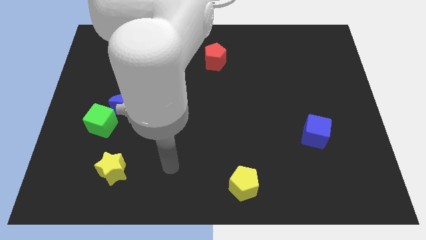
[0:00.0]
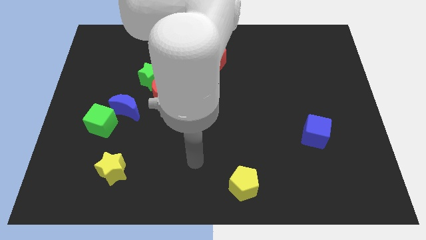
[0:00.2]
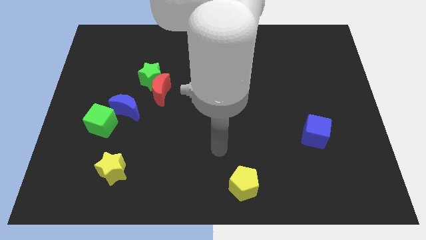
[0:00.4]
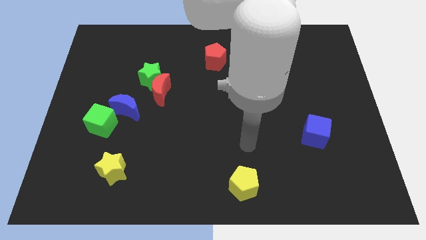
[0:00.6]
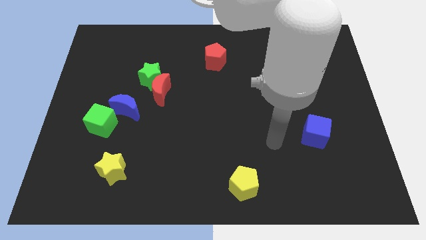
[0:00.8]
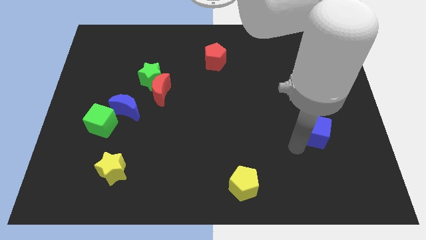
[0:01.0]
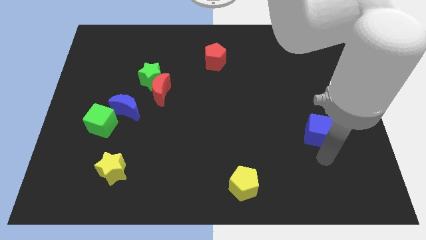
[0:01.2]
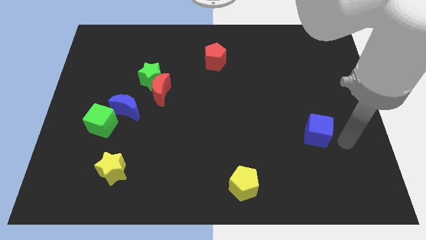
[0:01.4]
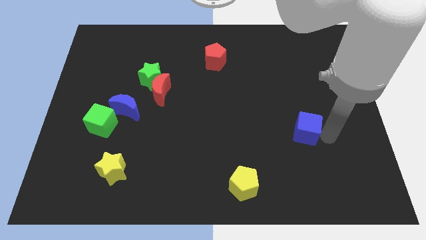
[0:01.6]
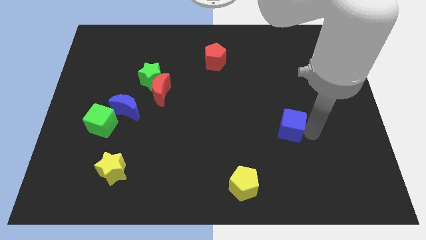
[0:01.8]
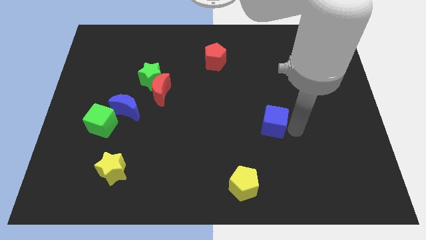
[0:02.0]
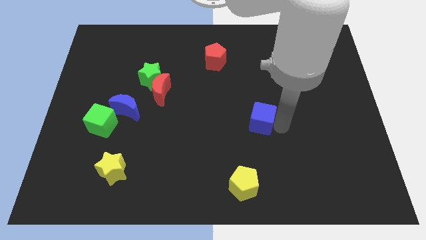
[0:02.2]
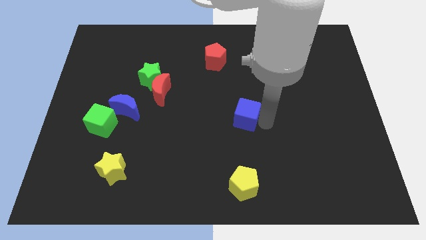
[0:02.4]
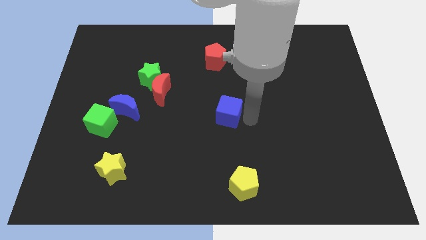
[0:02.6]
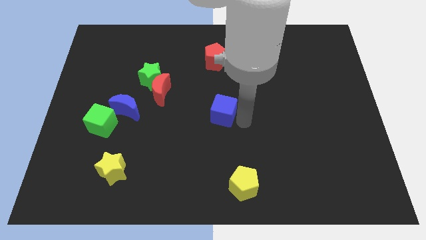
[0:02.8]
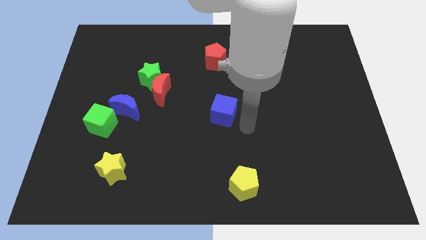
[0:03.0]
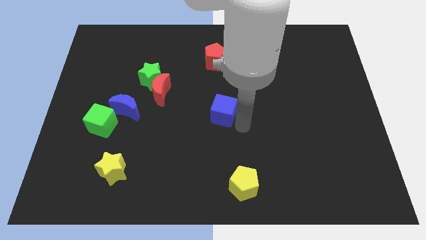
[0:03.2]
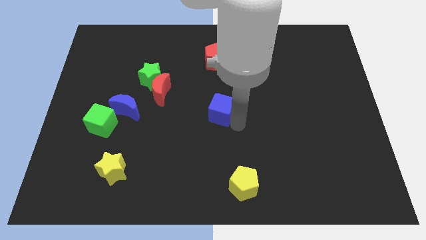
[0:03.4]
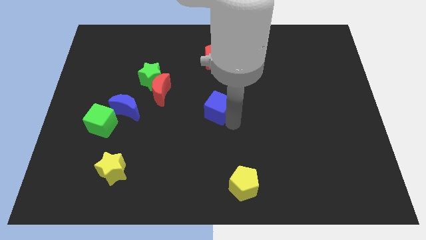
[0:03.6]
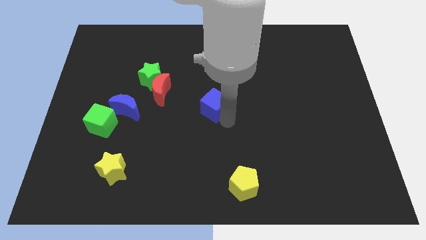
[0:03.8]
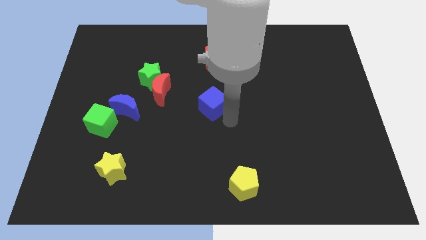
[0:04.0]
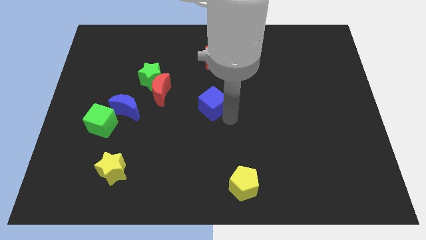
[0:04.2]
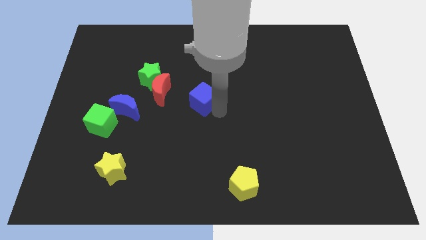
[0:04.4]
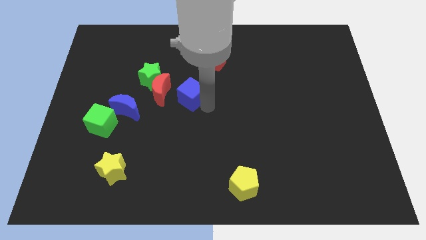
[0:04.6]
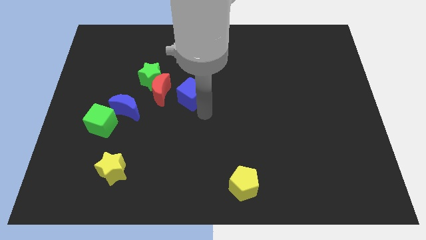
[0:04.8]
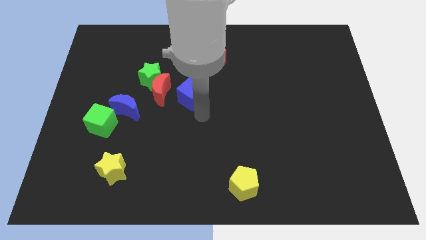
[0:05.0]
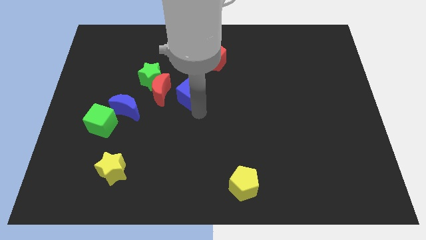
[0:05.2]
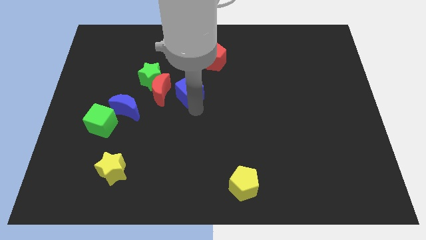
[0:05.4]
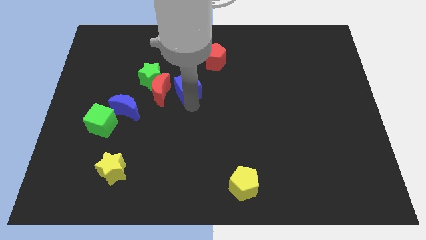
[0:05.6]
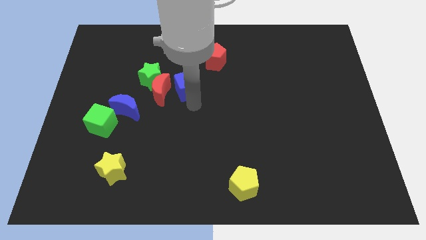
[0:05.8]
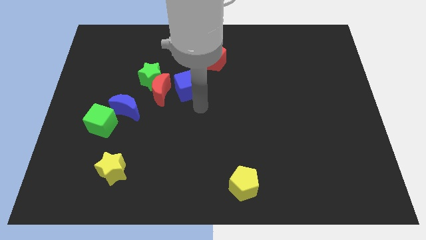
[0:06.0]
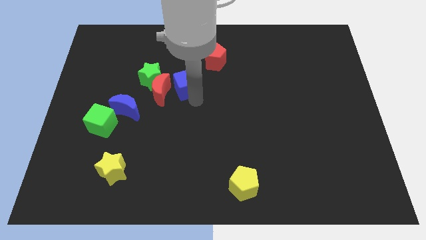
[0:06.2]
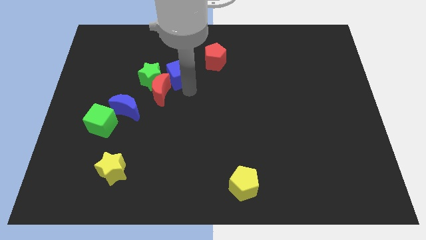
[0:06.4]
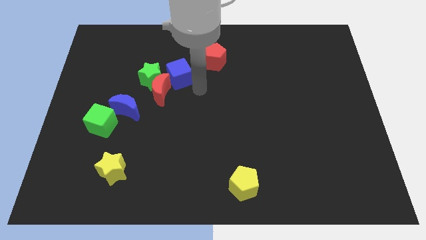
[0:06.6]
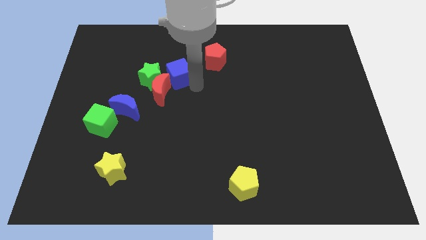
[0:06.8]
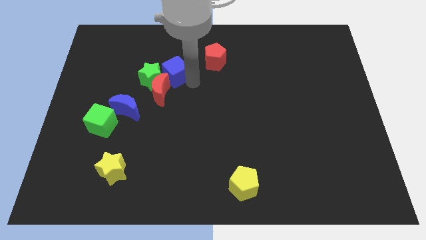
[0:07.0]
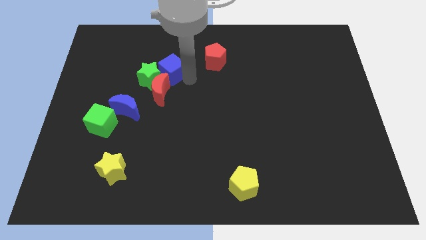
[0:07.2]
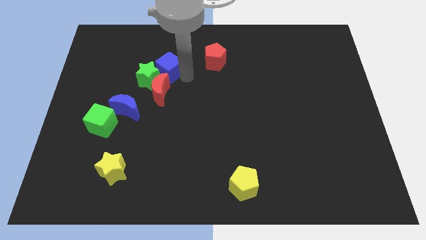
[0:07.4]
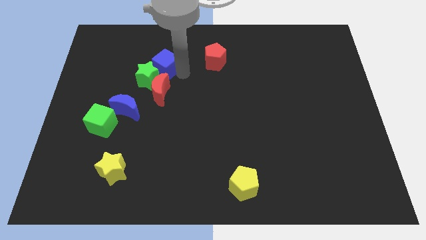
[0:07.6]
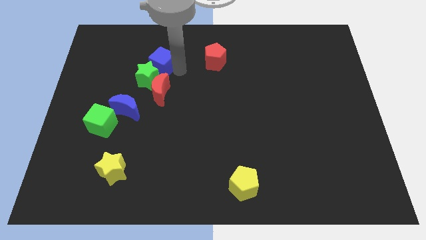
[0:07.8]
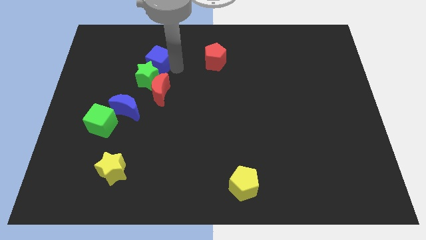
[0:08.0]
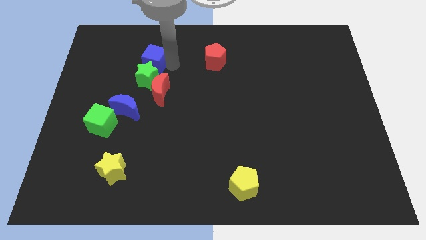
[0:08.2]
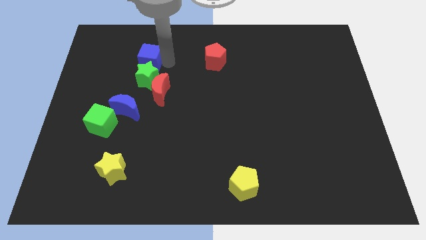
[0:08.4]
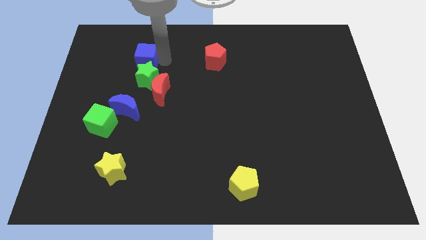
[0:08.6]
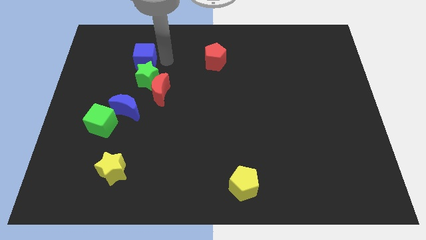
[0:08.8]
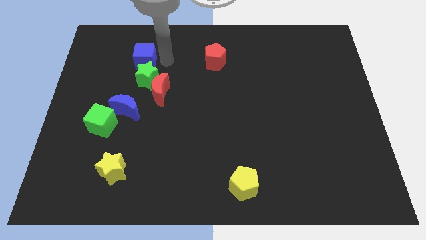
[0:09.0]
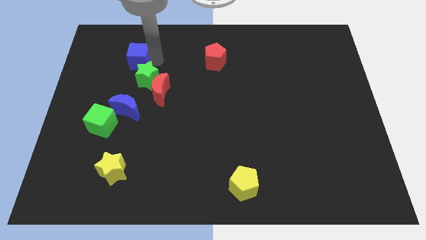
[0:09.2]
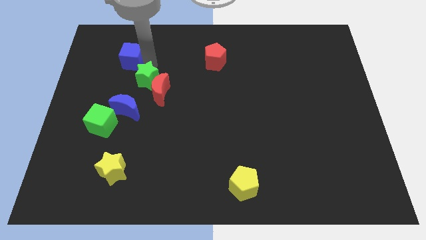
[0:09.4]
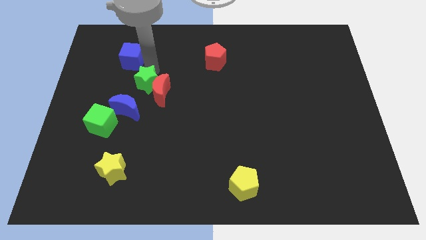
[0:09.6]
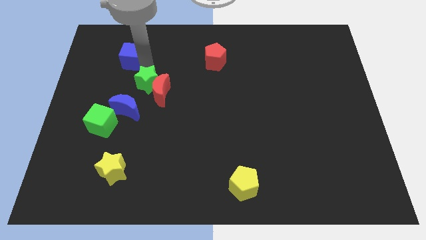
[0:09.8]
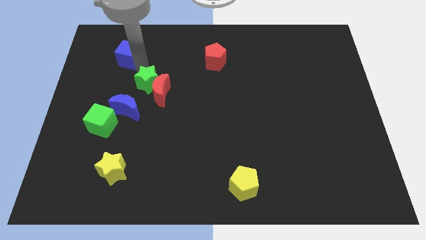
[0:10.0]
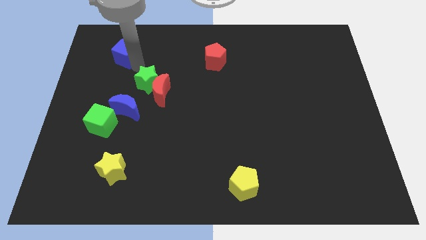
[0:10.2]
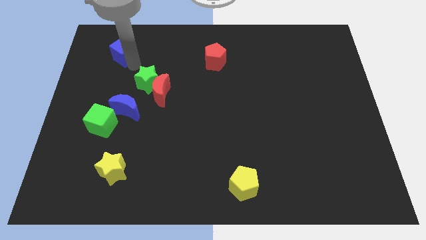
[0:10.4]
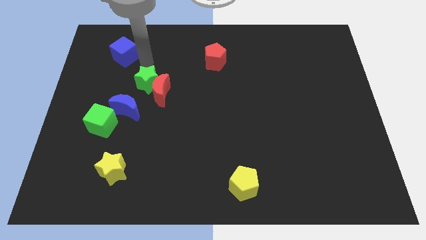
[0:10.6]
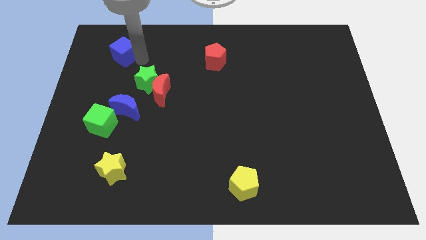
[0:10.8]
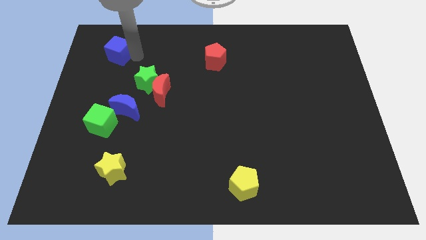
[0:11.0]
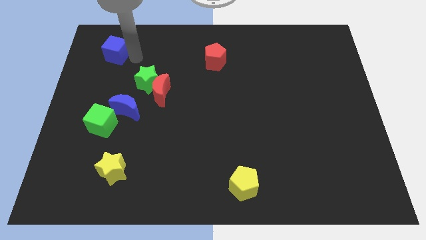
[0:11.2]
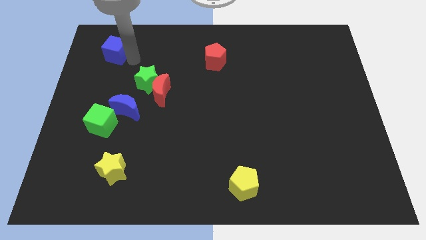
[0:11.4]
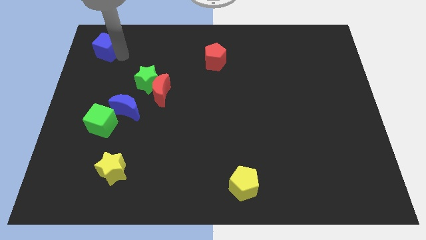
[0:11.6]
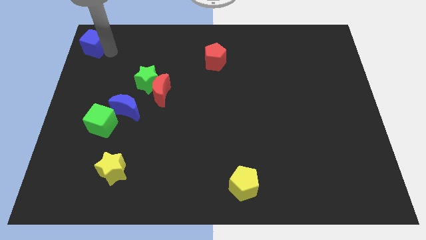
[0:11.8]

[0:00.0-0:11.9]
put the blue cube to the top left of the board
